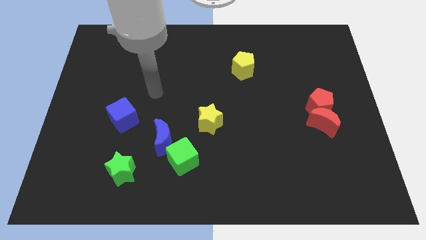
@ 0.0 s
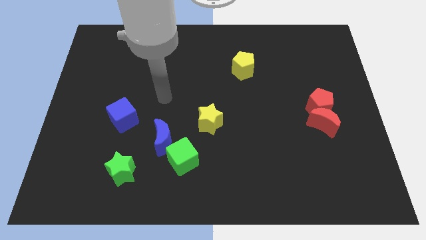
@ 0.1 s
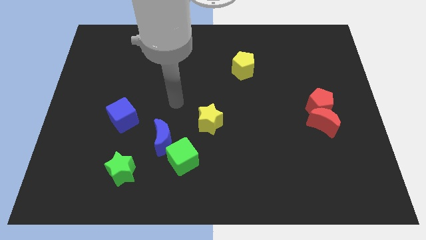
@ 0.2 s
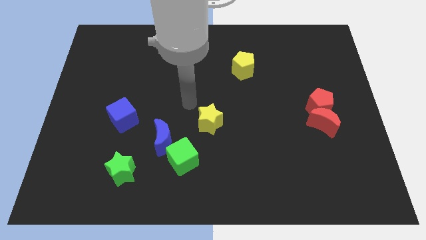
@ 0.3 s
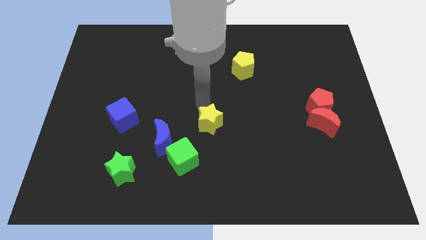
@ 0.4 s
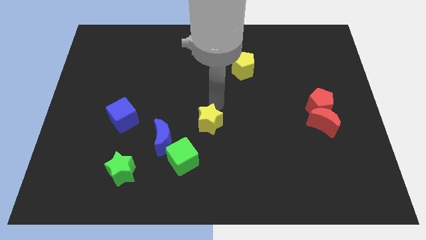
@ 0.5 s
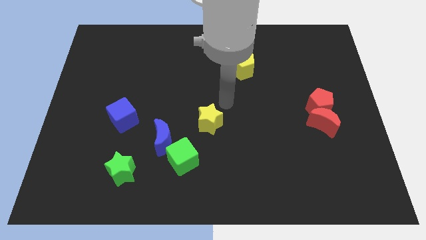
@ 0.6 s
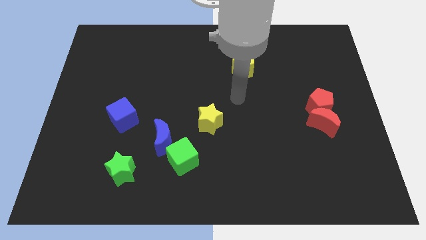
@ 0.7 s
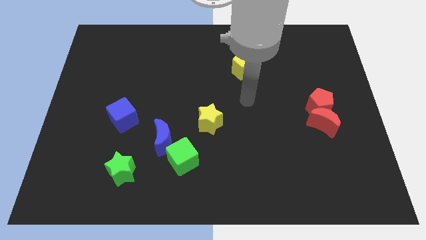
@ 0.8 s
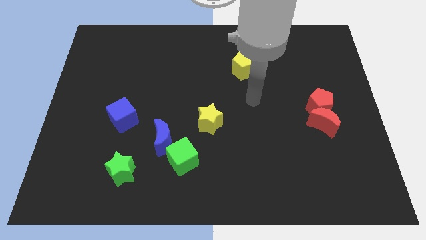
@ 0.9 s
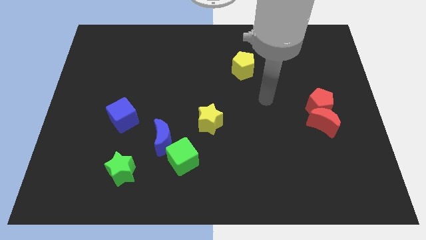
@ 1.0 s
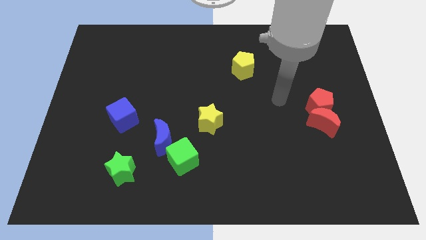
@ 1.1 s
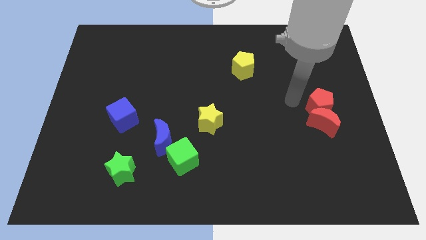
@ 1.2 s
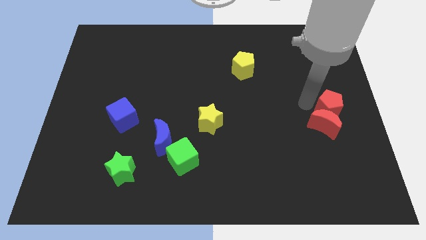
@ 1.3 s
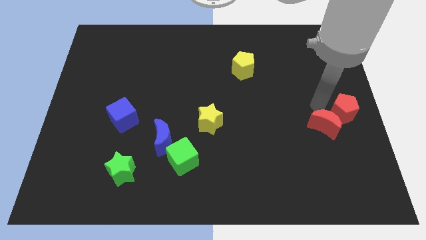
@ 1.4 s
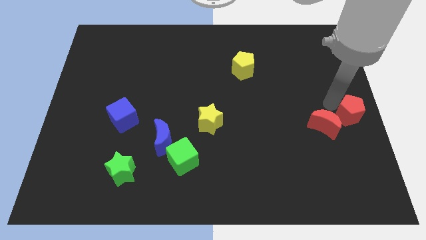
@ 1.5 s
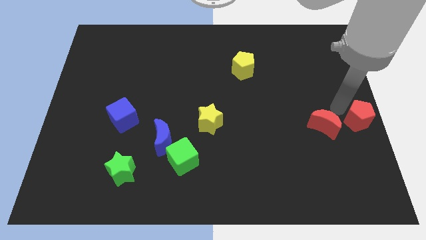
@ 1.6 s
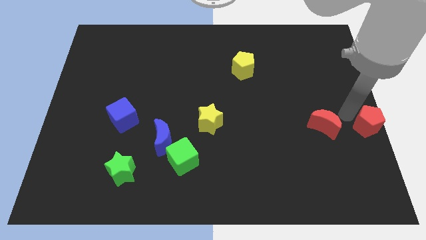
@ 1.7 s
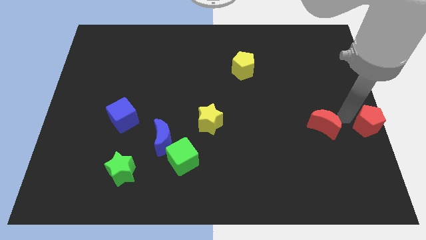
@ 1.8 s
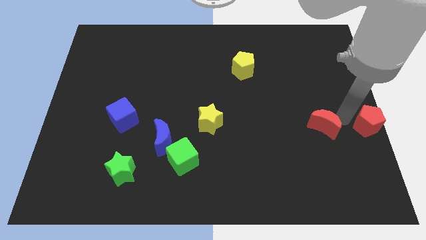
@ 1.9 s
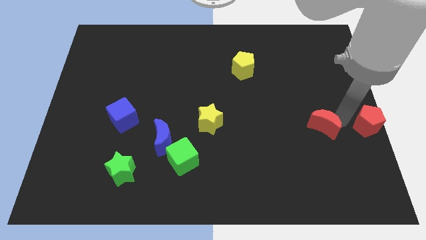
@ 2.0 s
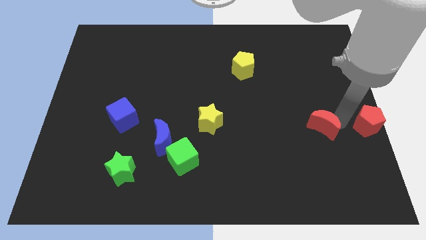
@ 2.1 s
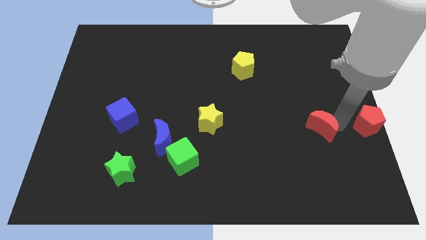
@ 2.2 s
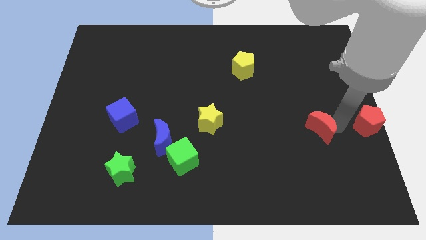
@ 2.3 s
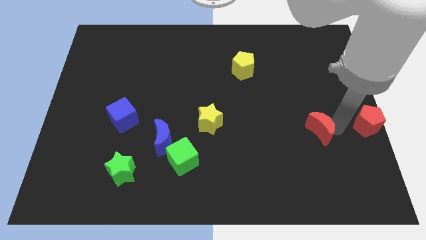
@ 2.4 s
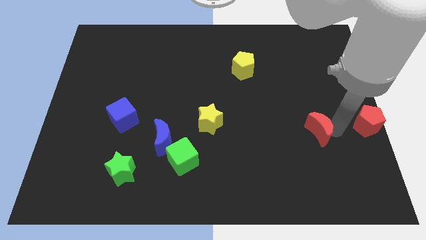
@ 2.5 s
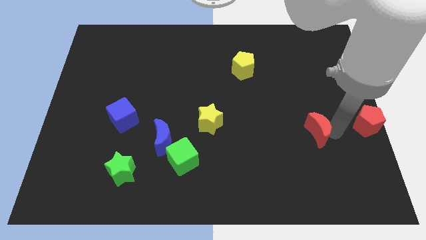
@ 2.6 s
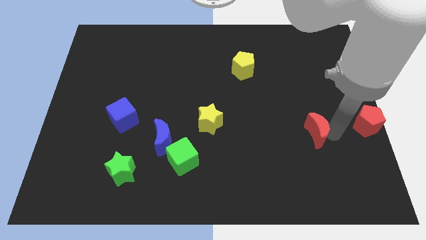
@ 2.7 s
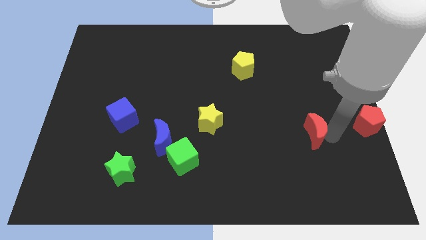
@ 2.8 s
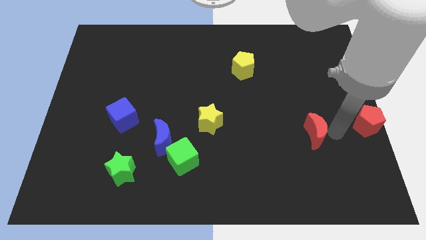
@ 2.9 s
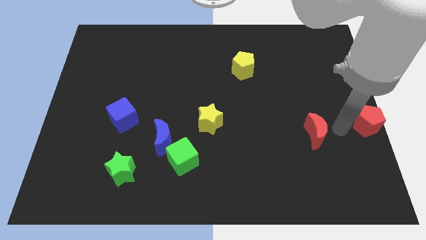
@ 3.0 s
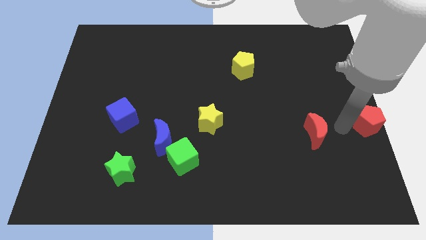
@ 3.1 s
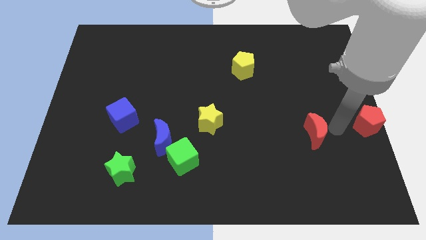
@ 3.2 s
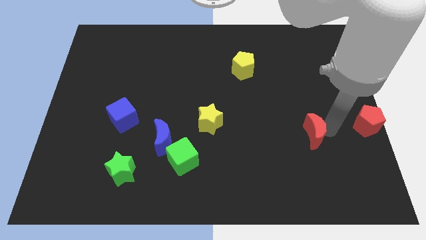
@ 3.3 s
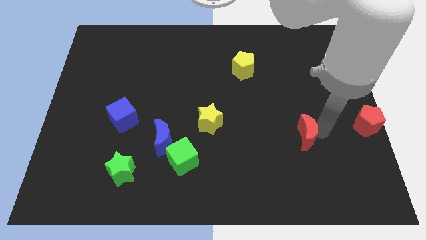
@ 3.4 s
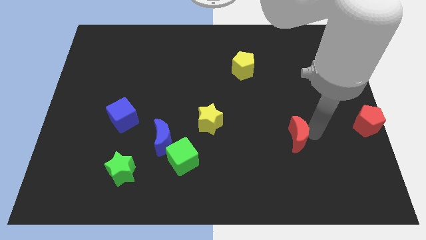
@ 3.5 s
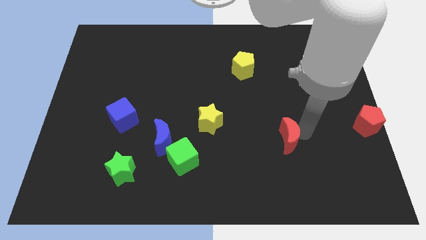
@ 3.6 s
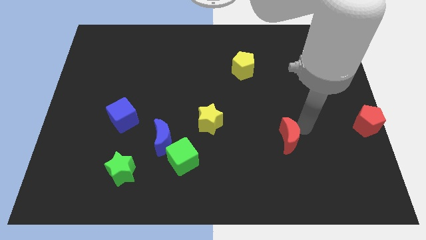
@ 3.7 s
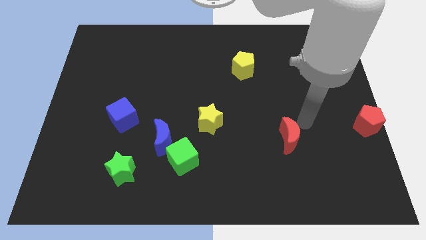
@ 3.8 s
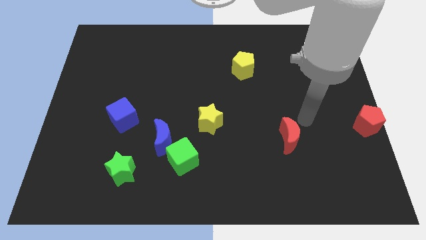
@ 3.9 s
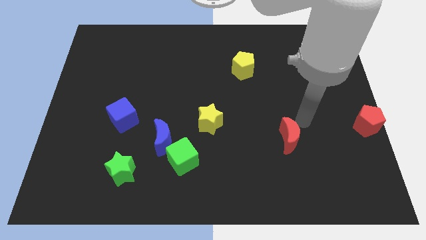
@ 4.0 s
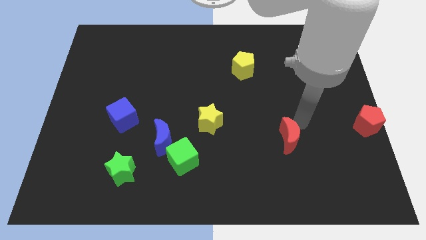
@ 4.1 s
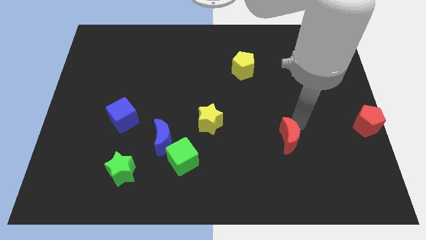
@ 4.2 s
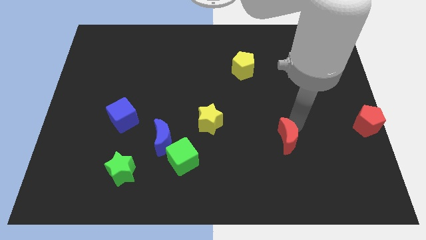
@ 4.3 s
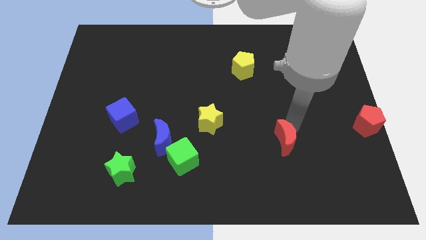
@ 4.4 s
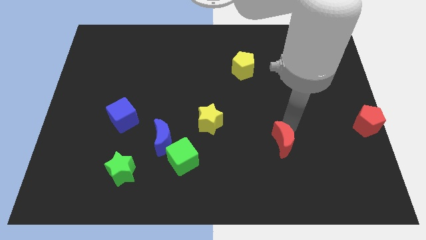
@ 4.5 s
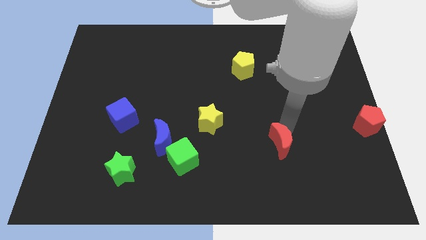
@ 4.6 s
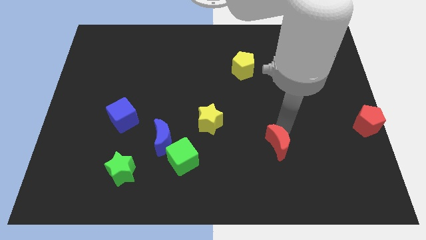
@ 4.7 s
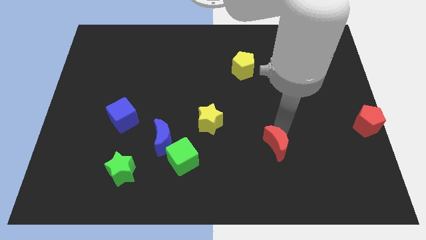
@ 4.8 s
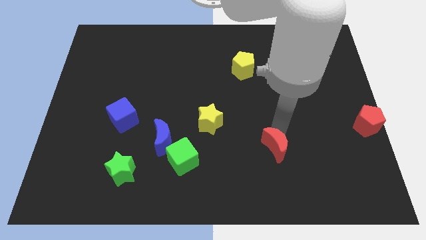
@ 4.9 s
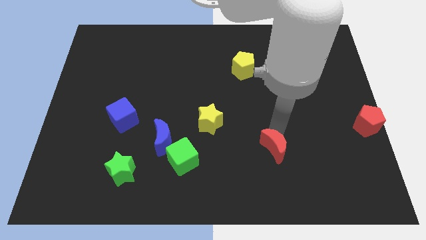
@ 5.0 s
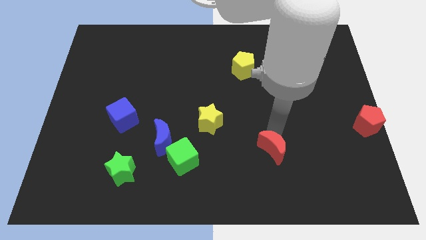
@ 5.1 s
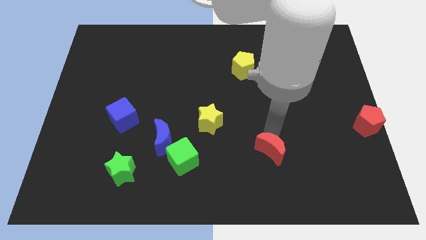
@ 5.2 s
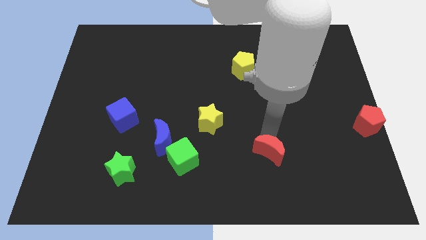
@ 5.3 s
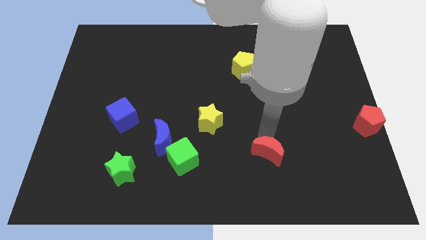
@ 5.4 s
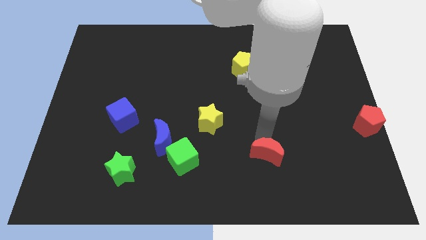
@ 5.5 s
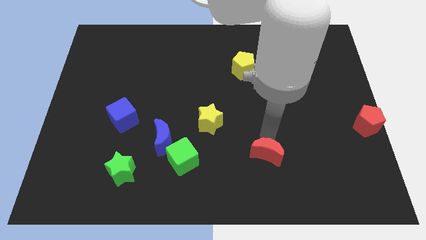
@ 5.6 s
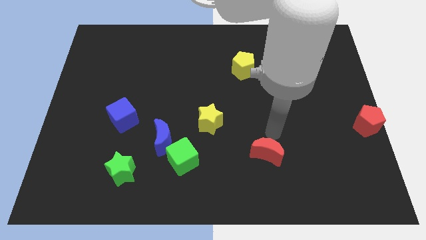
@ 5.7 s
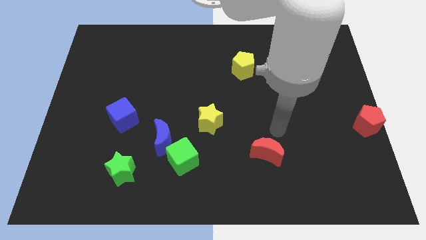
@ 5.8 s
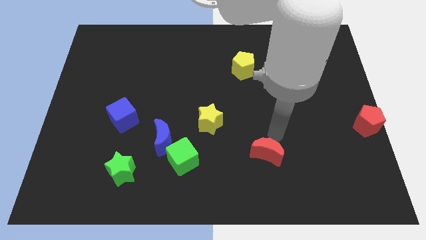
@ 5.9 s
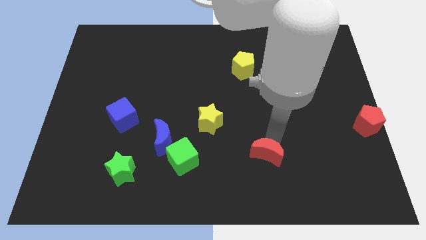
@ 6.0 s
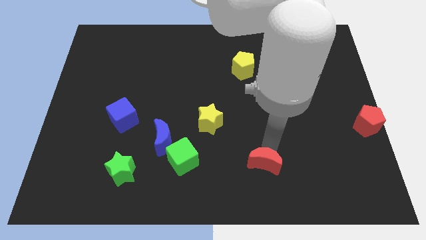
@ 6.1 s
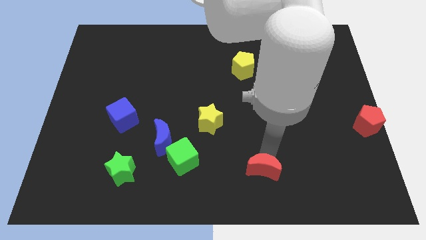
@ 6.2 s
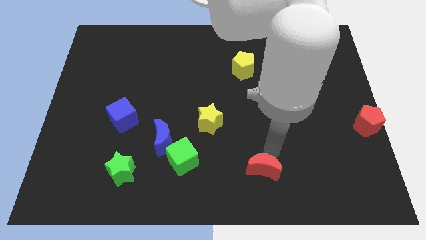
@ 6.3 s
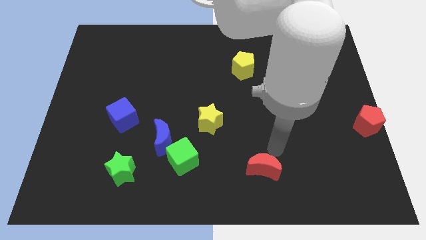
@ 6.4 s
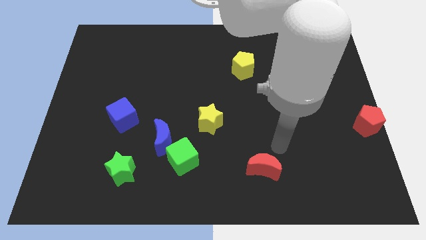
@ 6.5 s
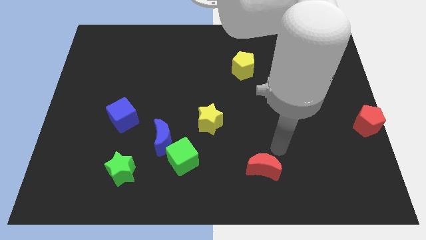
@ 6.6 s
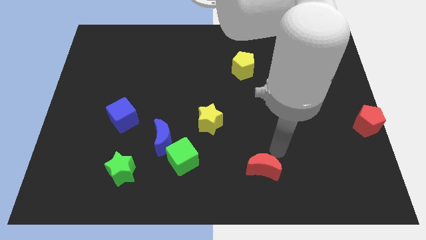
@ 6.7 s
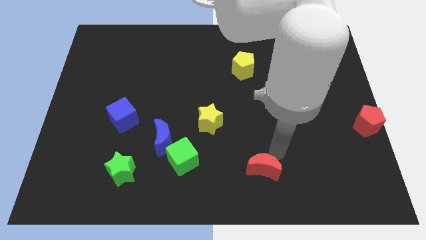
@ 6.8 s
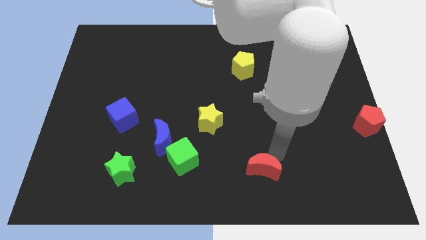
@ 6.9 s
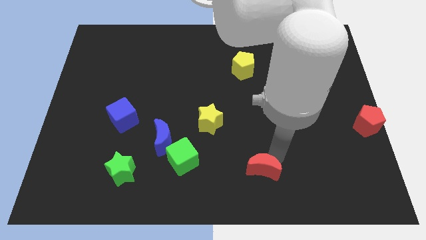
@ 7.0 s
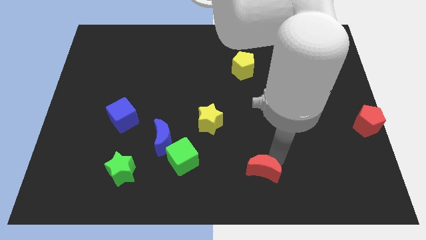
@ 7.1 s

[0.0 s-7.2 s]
put the red moon to the bottom

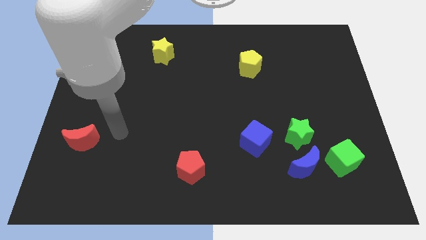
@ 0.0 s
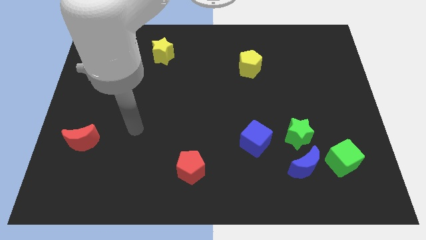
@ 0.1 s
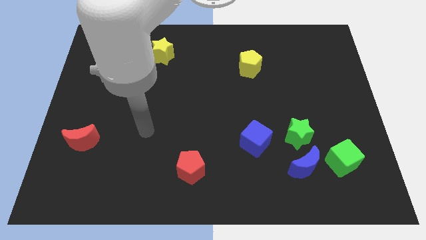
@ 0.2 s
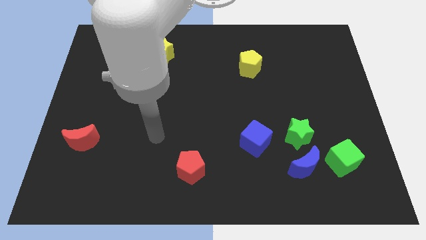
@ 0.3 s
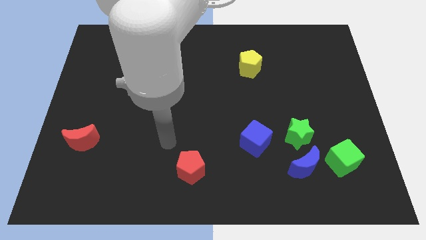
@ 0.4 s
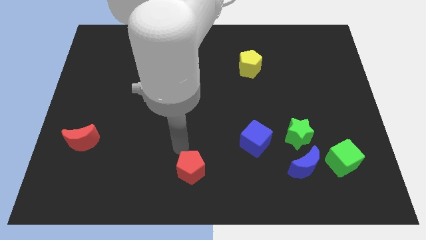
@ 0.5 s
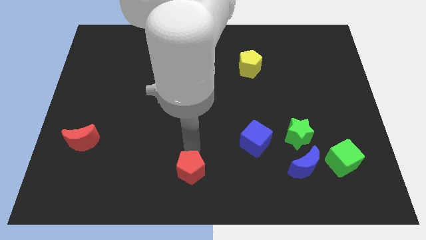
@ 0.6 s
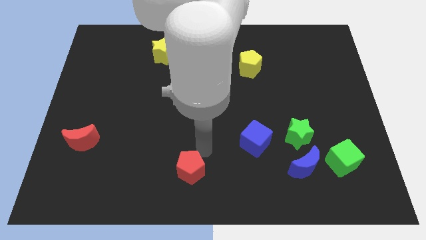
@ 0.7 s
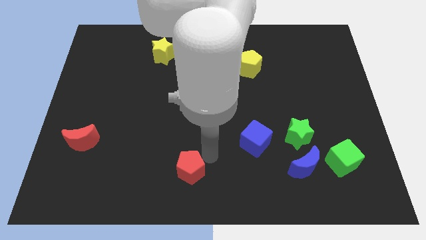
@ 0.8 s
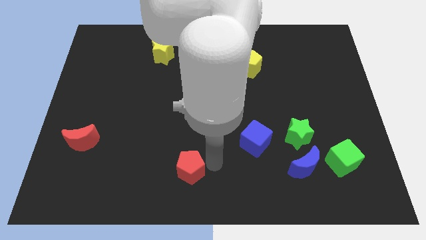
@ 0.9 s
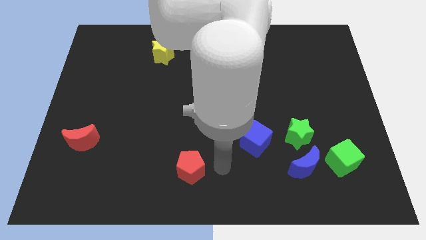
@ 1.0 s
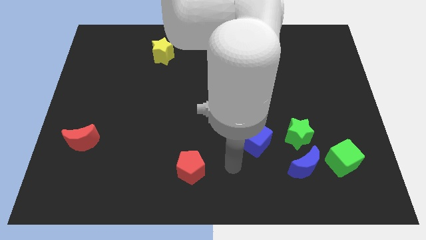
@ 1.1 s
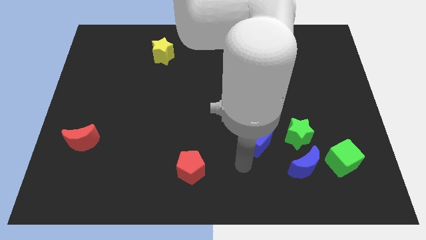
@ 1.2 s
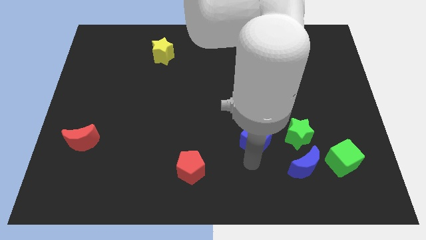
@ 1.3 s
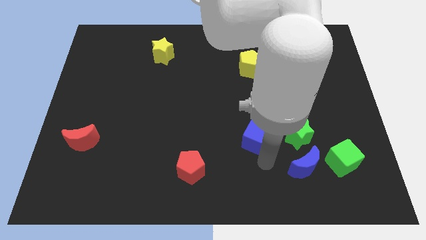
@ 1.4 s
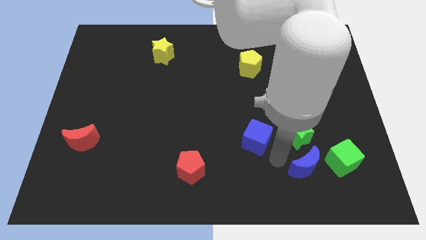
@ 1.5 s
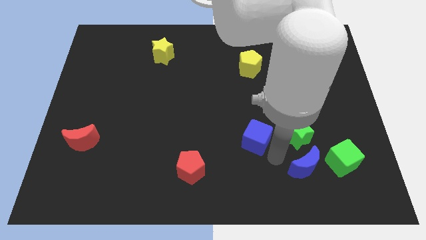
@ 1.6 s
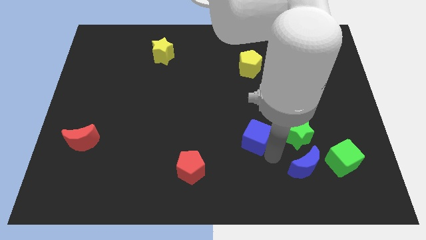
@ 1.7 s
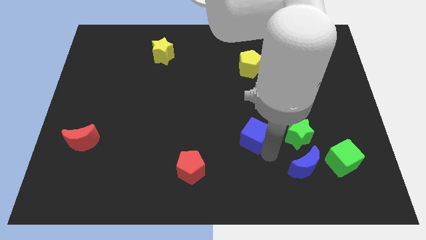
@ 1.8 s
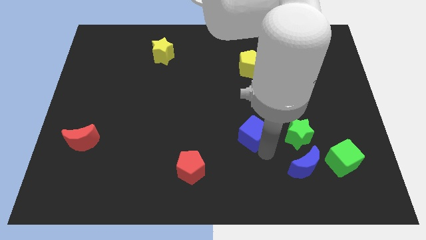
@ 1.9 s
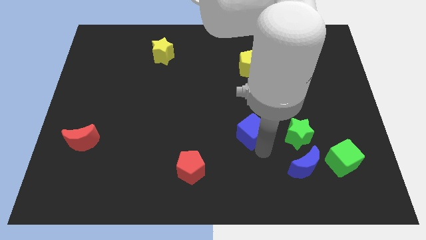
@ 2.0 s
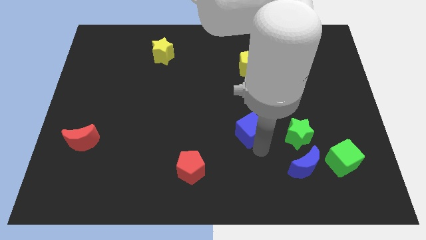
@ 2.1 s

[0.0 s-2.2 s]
slide the blue cube to the center
